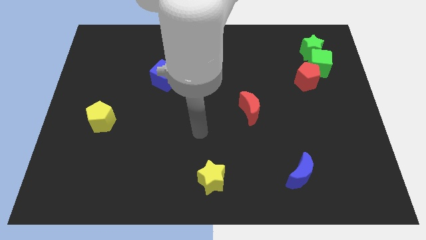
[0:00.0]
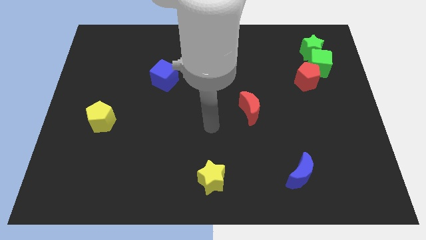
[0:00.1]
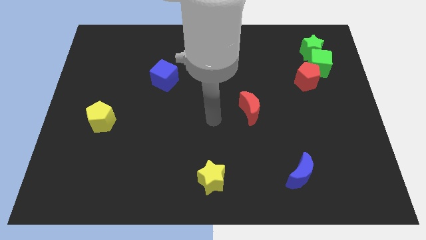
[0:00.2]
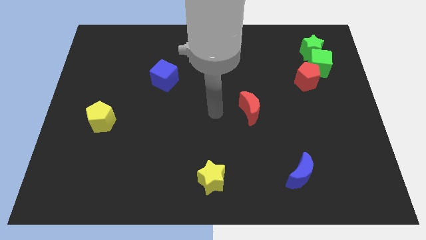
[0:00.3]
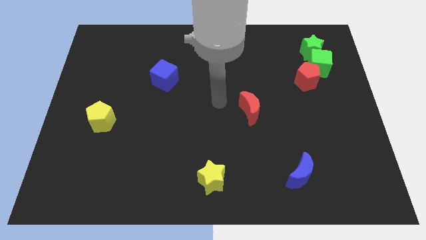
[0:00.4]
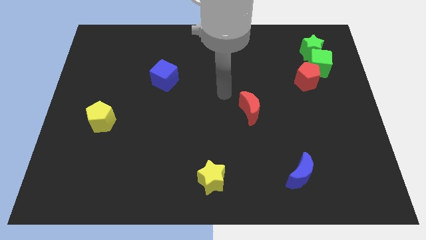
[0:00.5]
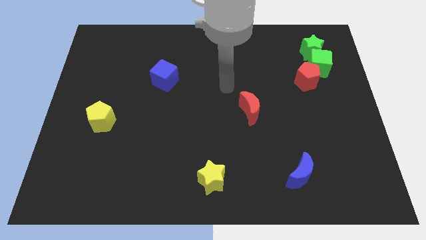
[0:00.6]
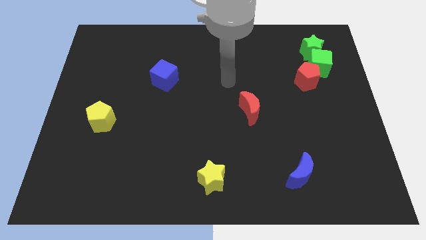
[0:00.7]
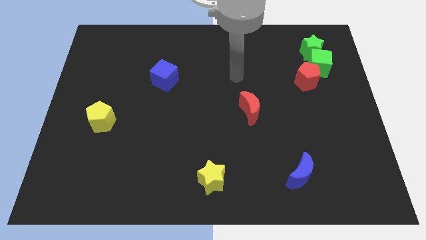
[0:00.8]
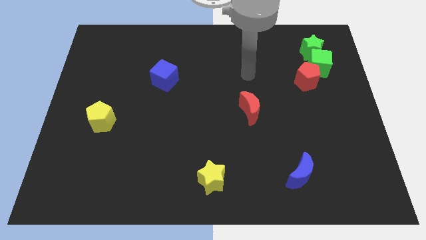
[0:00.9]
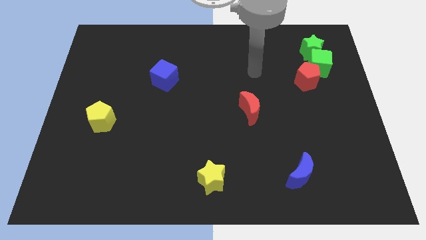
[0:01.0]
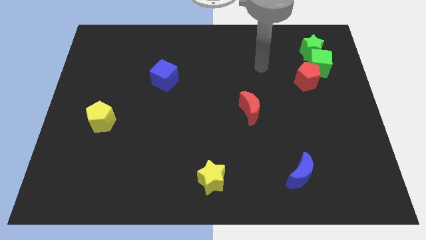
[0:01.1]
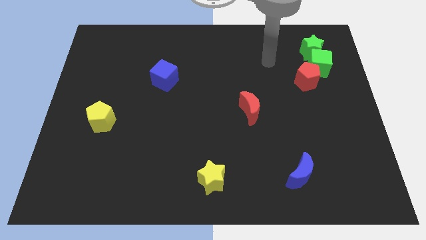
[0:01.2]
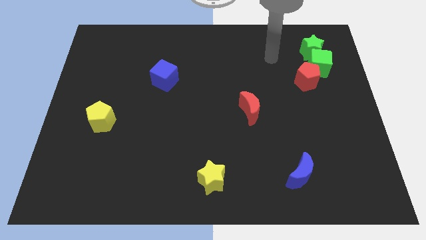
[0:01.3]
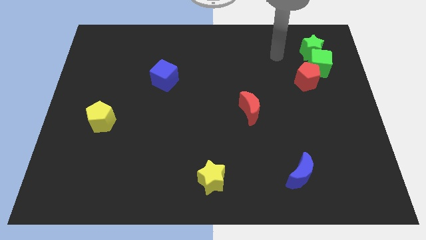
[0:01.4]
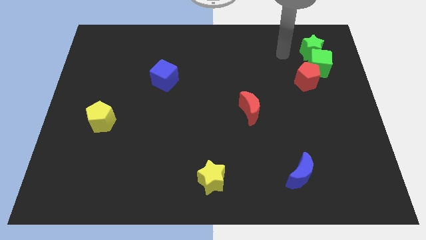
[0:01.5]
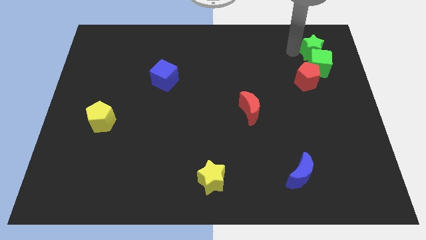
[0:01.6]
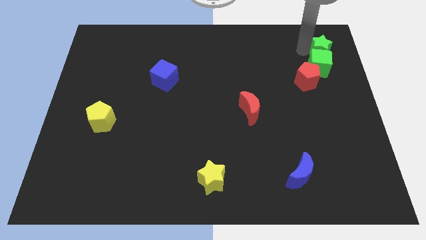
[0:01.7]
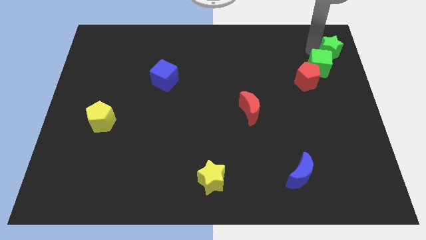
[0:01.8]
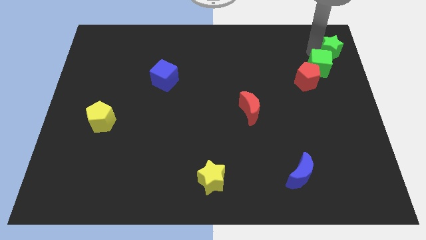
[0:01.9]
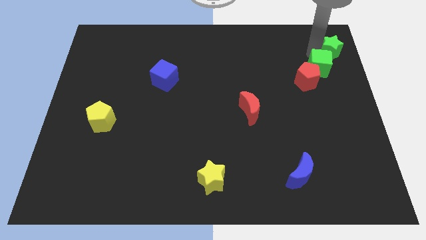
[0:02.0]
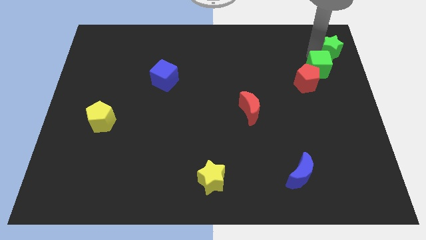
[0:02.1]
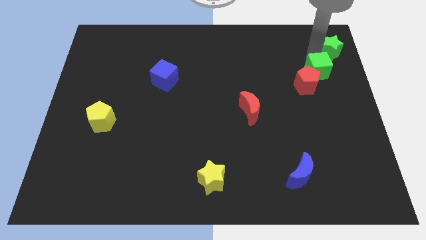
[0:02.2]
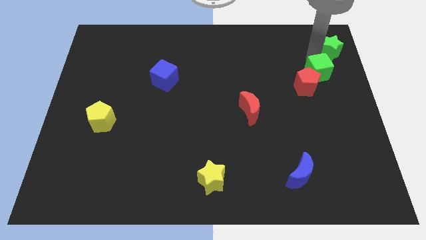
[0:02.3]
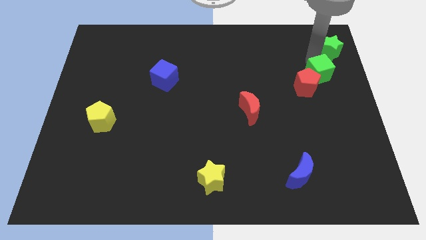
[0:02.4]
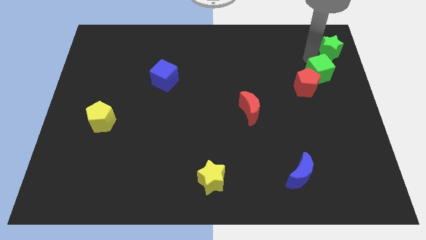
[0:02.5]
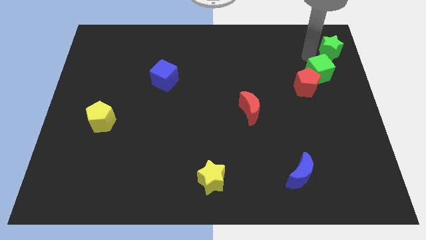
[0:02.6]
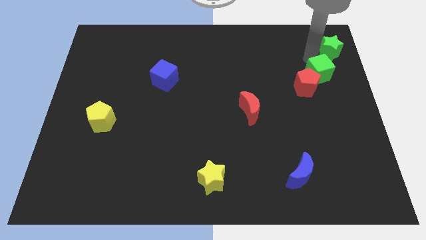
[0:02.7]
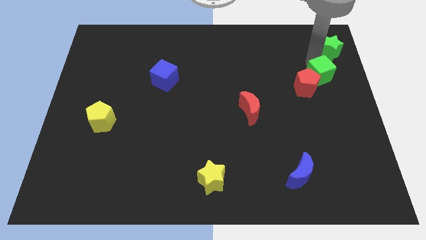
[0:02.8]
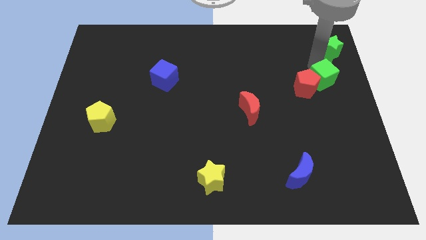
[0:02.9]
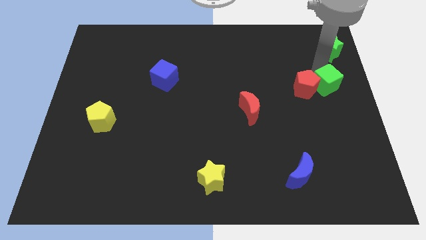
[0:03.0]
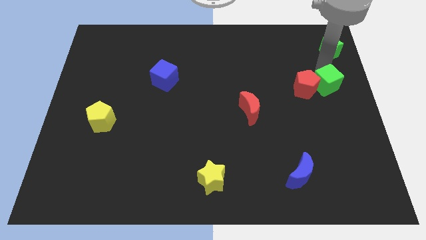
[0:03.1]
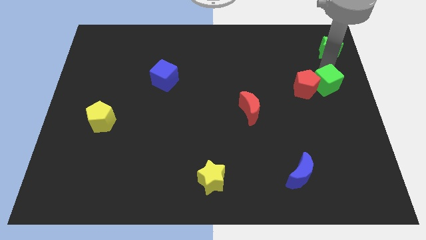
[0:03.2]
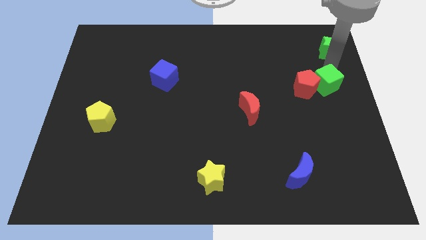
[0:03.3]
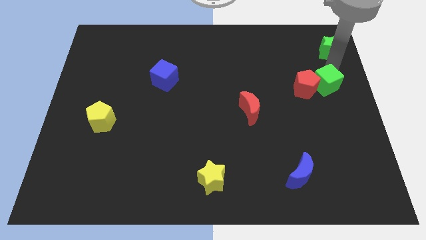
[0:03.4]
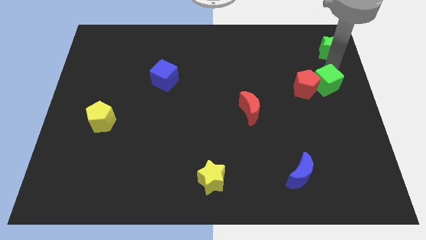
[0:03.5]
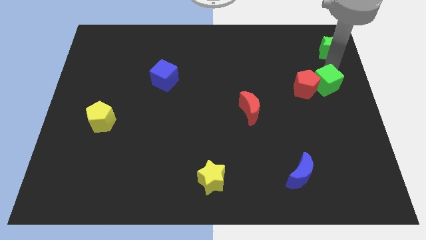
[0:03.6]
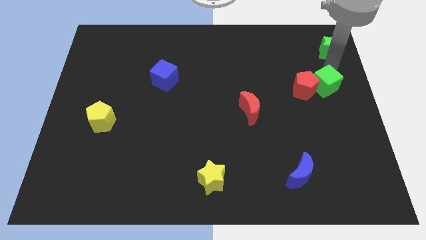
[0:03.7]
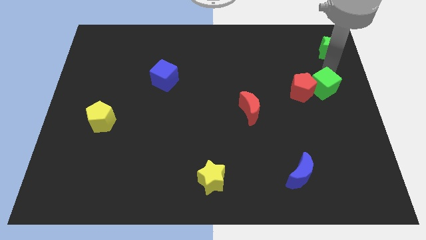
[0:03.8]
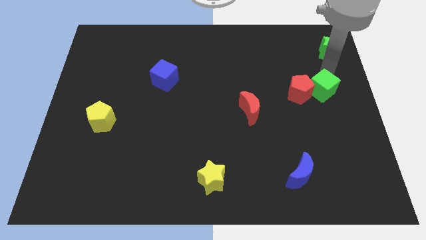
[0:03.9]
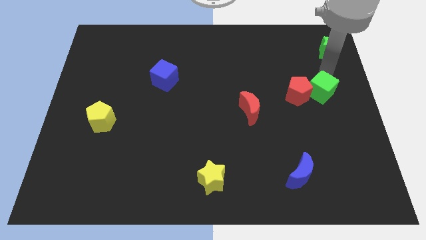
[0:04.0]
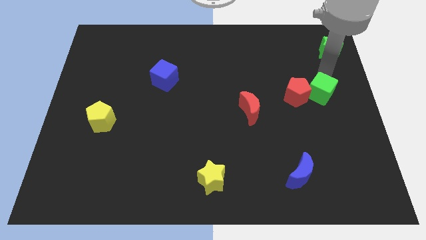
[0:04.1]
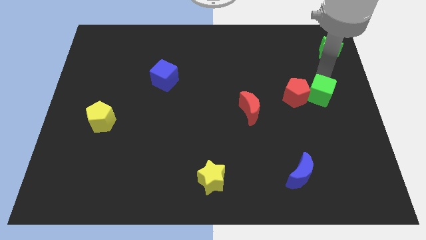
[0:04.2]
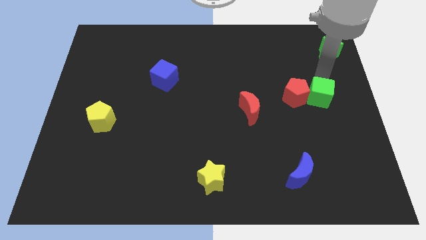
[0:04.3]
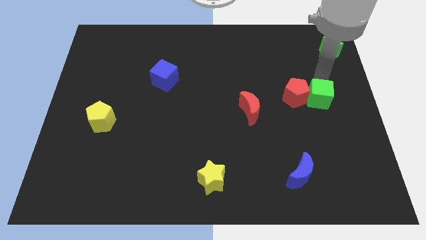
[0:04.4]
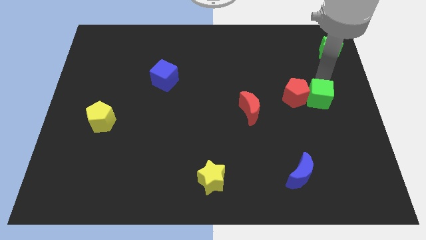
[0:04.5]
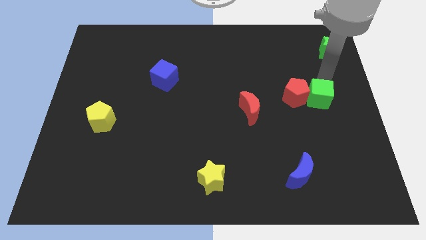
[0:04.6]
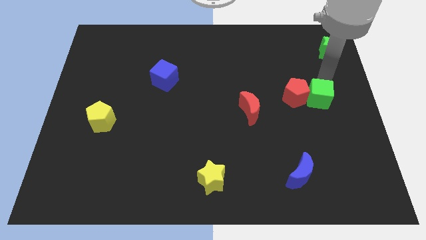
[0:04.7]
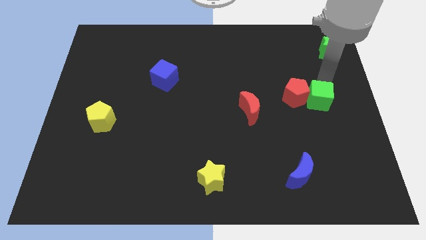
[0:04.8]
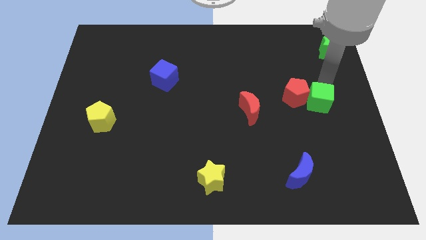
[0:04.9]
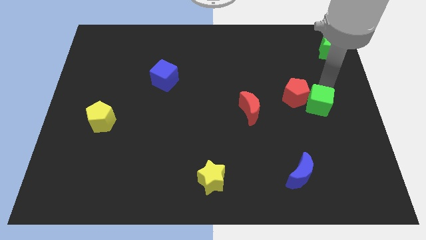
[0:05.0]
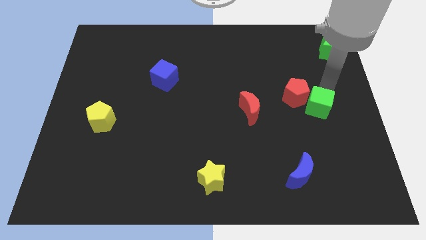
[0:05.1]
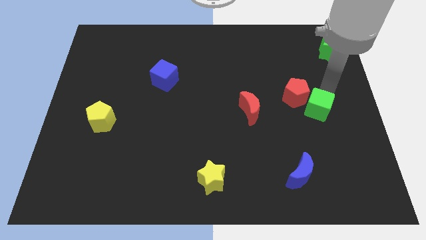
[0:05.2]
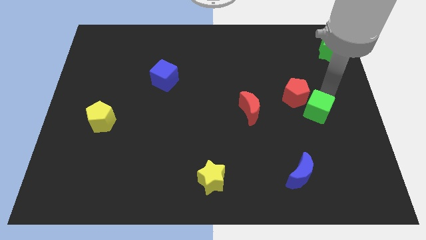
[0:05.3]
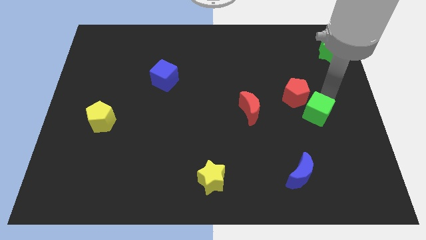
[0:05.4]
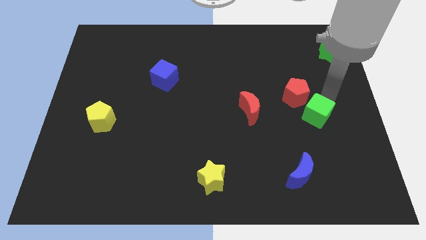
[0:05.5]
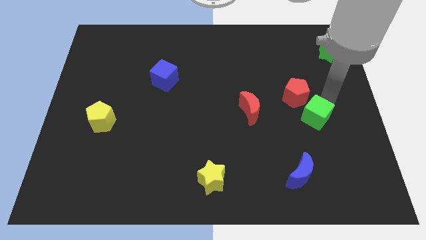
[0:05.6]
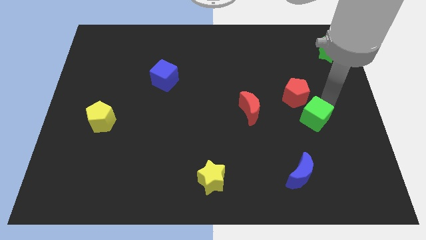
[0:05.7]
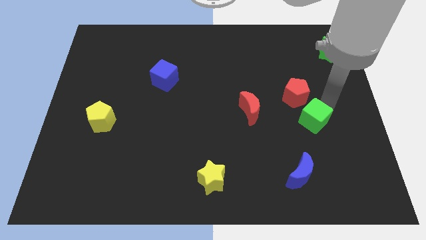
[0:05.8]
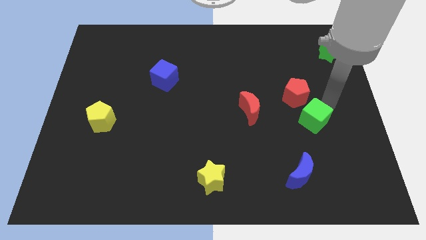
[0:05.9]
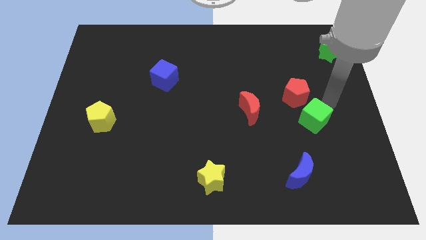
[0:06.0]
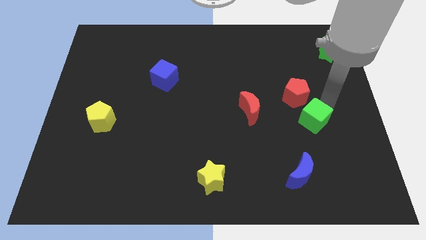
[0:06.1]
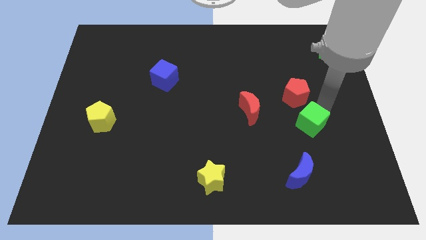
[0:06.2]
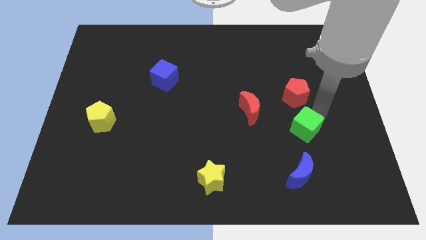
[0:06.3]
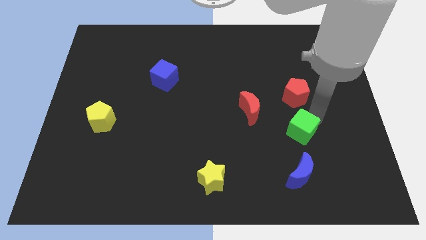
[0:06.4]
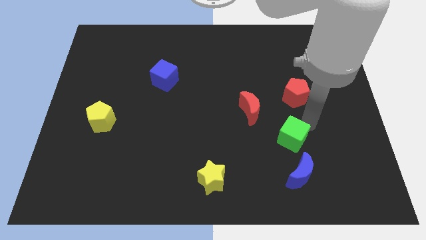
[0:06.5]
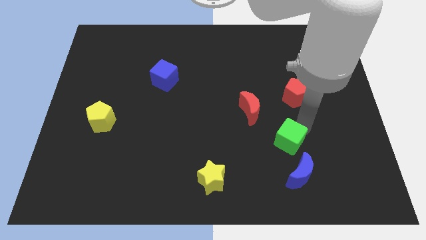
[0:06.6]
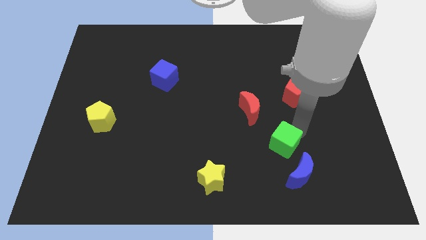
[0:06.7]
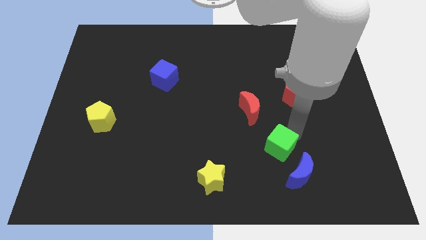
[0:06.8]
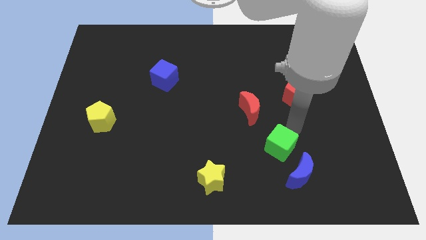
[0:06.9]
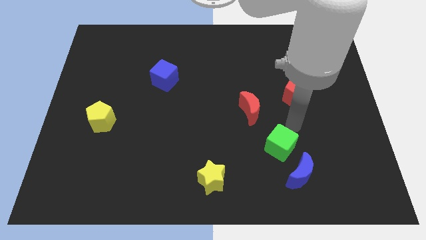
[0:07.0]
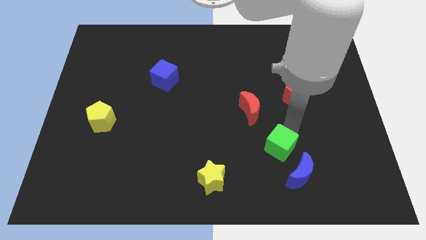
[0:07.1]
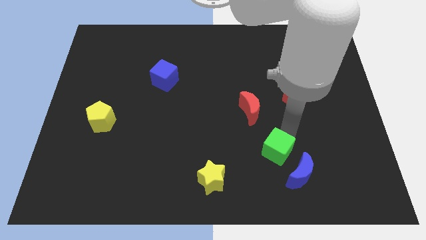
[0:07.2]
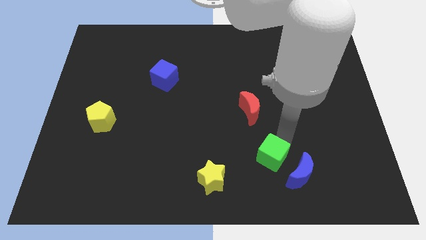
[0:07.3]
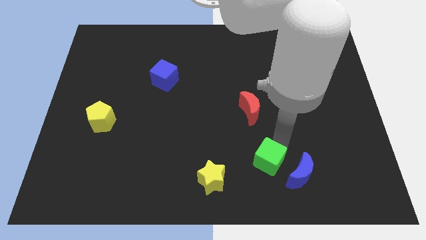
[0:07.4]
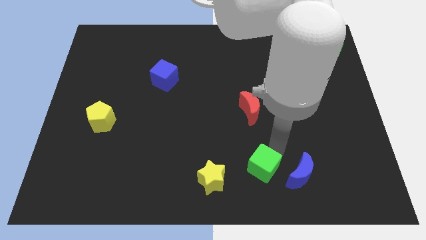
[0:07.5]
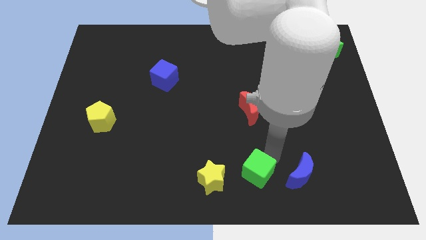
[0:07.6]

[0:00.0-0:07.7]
push the green cube to the bottom
